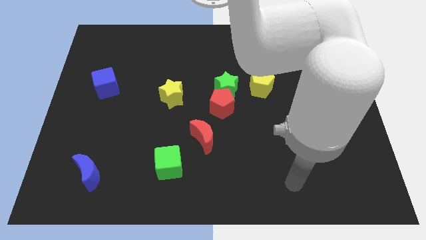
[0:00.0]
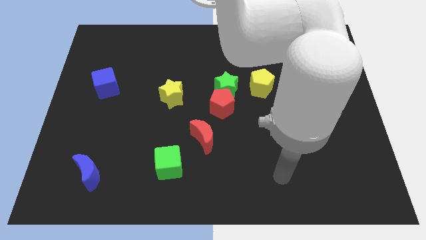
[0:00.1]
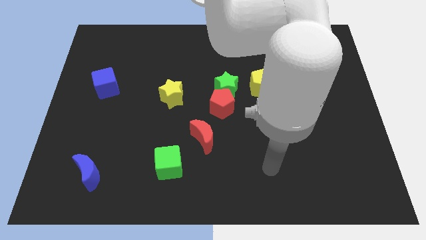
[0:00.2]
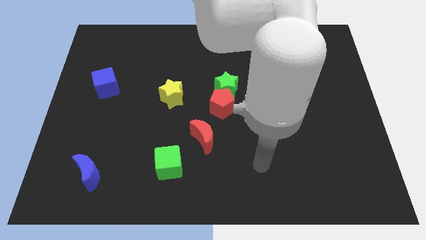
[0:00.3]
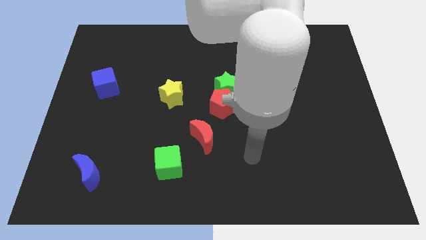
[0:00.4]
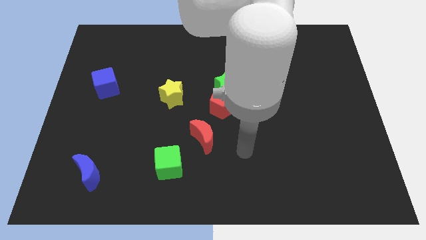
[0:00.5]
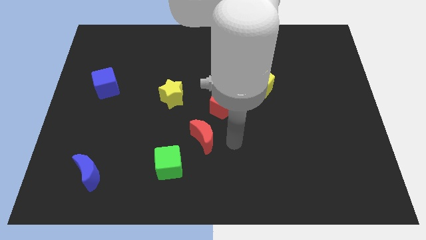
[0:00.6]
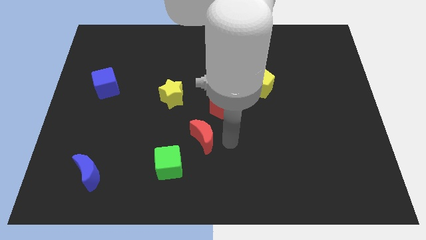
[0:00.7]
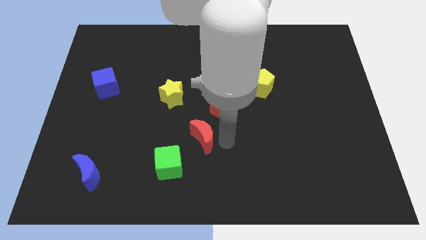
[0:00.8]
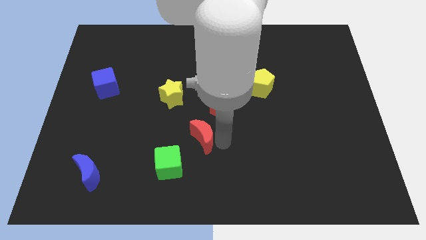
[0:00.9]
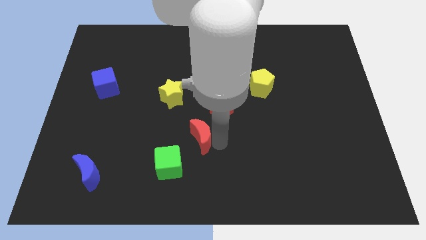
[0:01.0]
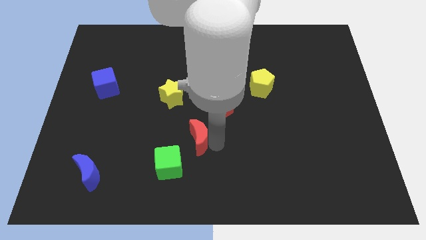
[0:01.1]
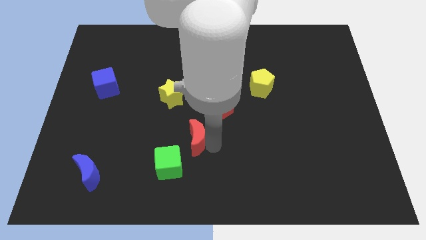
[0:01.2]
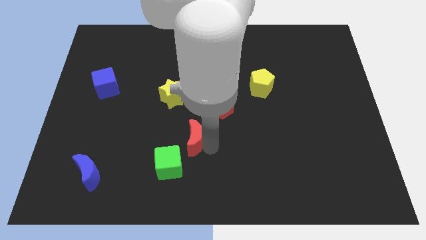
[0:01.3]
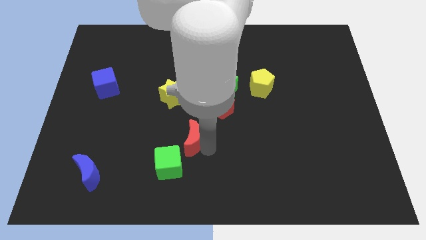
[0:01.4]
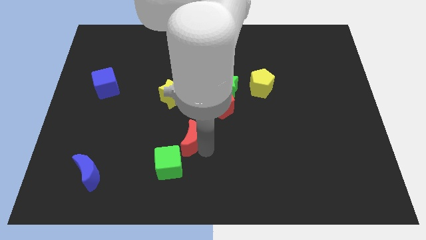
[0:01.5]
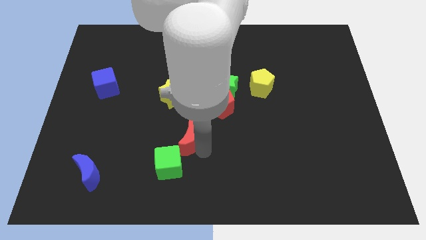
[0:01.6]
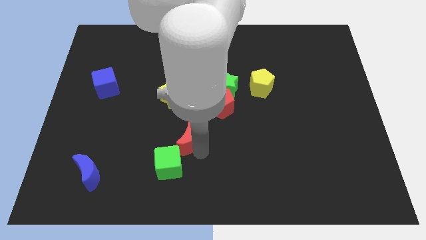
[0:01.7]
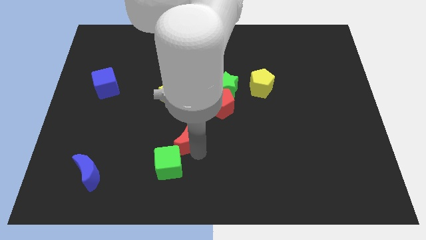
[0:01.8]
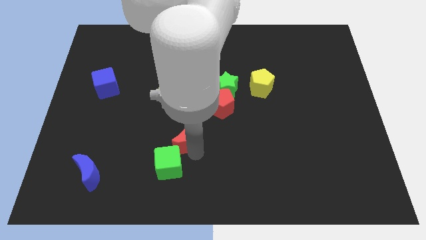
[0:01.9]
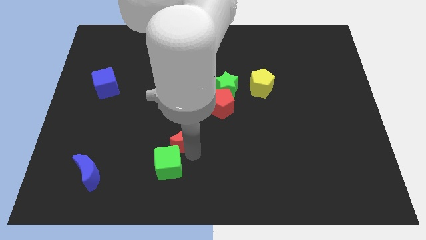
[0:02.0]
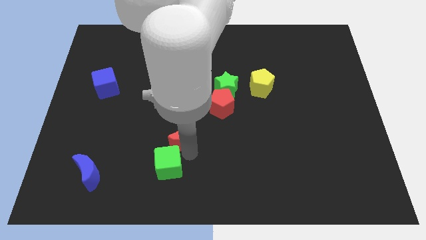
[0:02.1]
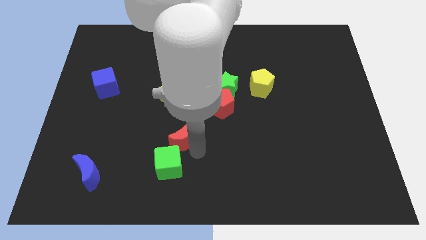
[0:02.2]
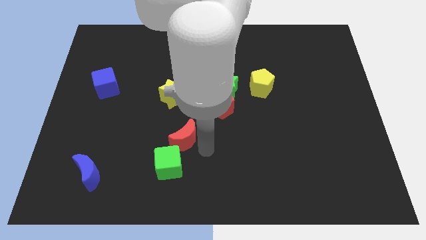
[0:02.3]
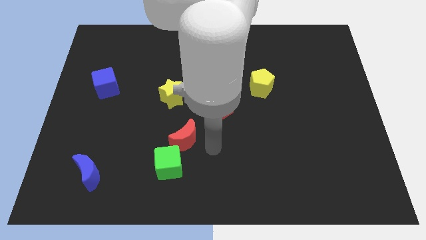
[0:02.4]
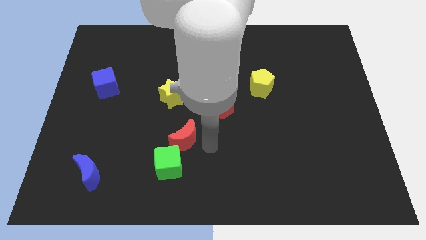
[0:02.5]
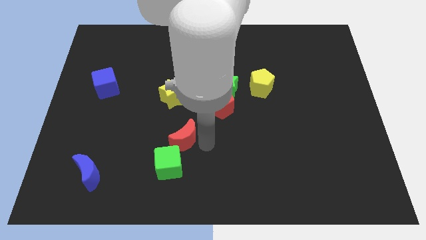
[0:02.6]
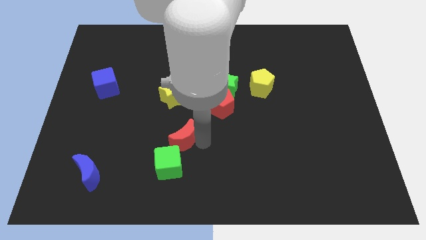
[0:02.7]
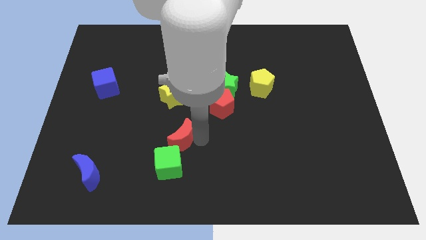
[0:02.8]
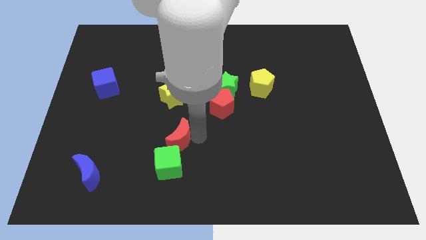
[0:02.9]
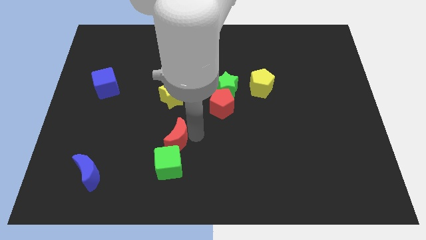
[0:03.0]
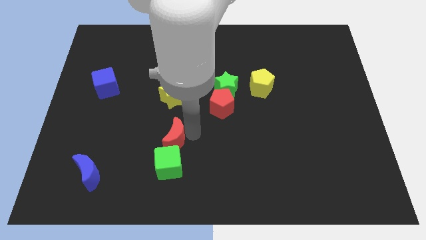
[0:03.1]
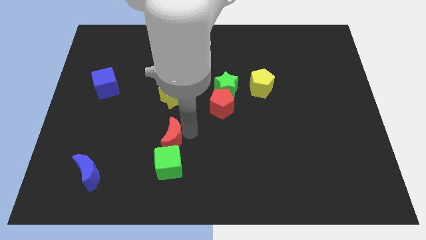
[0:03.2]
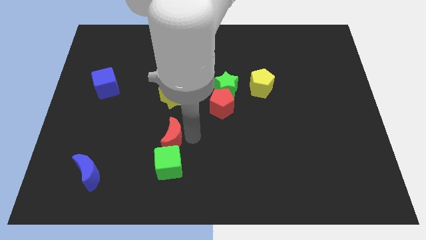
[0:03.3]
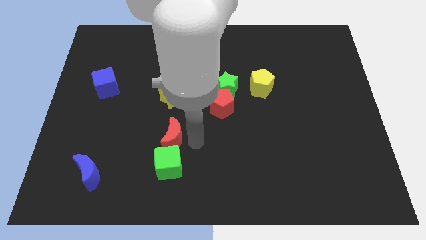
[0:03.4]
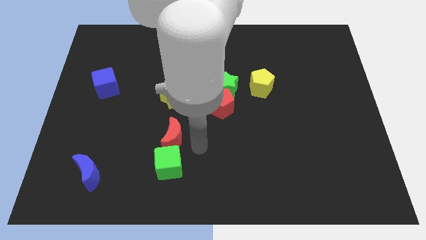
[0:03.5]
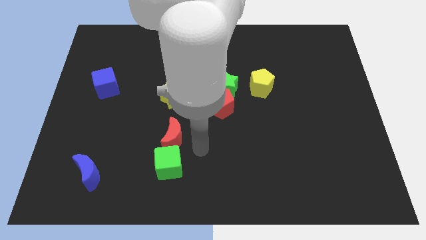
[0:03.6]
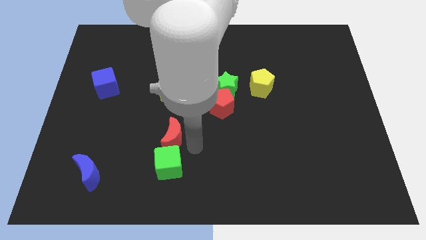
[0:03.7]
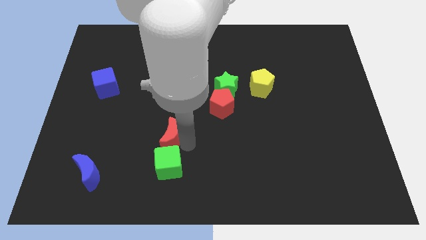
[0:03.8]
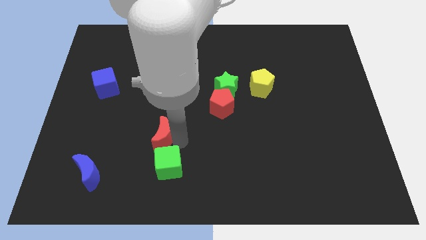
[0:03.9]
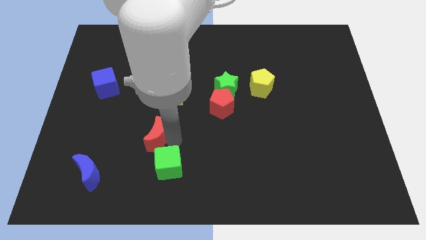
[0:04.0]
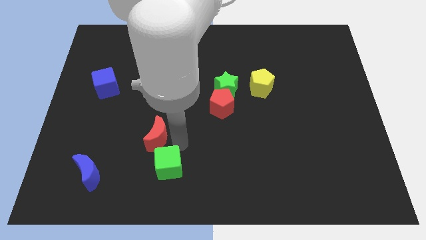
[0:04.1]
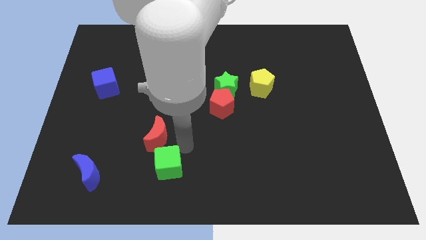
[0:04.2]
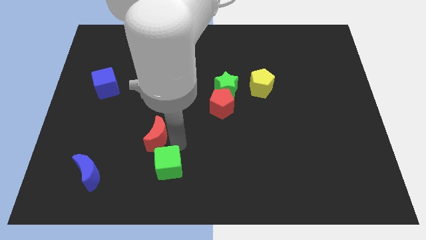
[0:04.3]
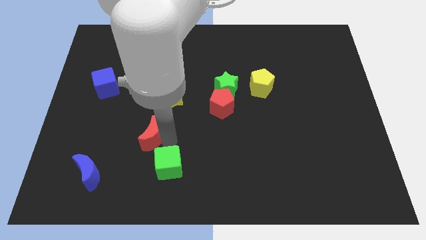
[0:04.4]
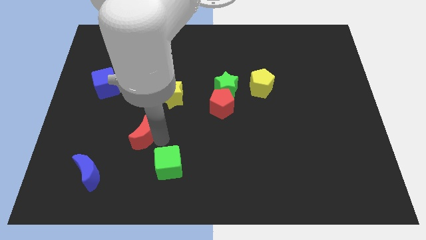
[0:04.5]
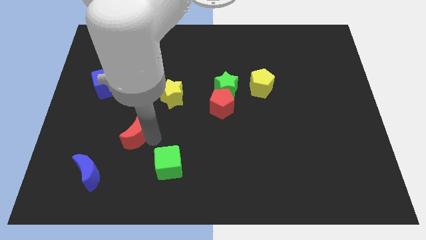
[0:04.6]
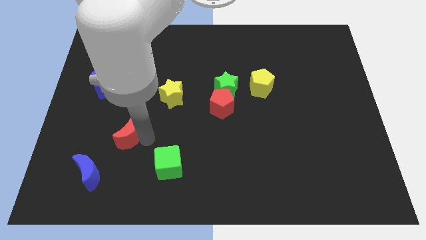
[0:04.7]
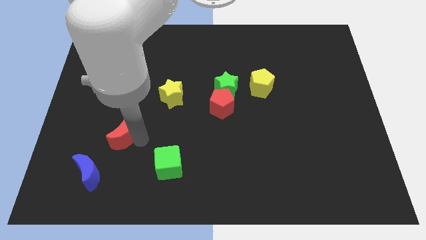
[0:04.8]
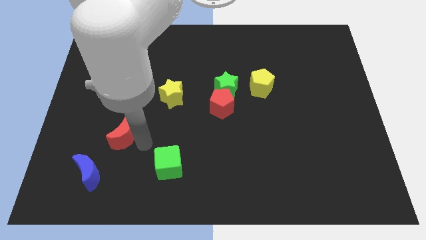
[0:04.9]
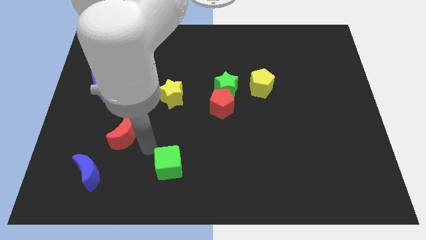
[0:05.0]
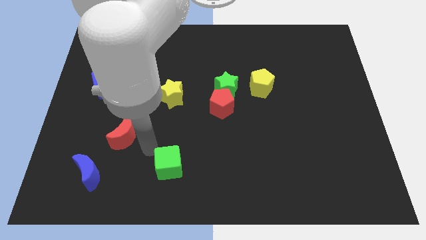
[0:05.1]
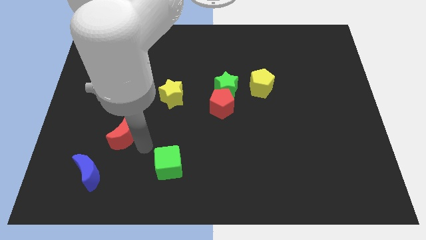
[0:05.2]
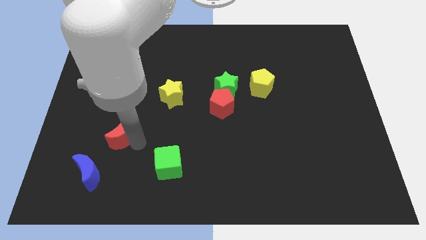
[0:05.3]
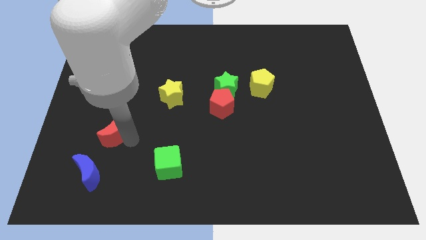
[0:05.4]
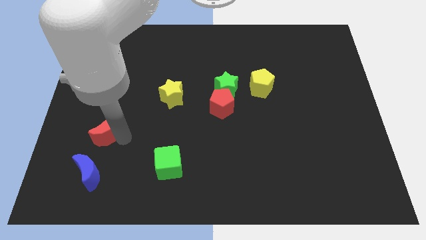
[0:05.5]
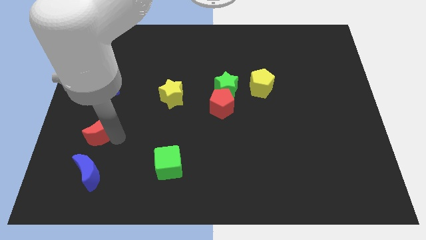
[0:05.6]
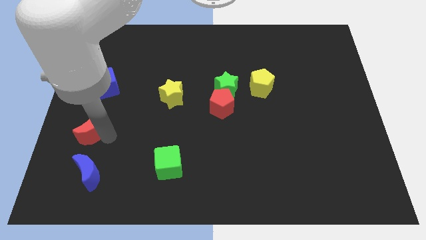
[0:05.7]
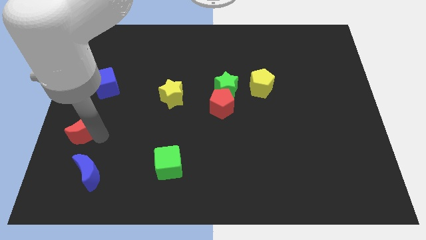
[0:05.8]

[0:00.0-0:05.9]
move the red moon to the left side of the board
